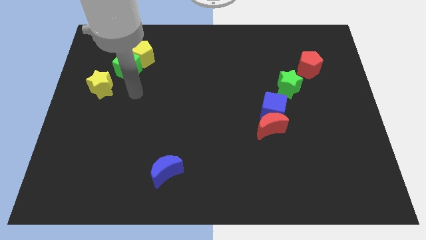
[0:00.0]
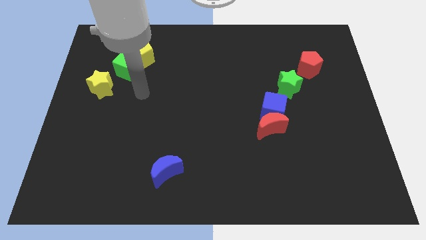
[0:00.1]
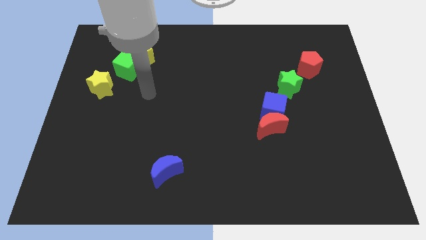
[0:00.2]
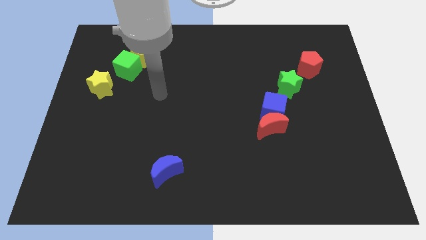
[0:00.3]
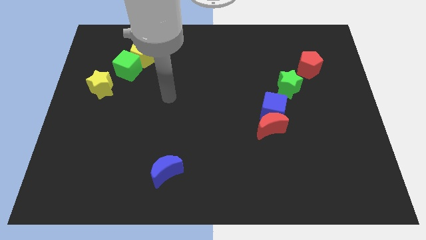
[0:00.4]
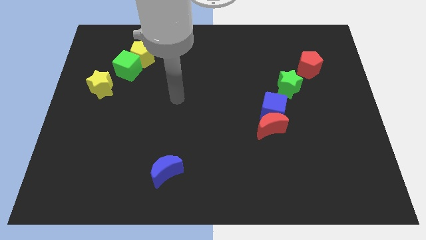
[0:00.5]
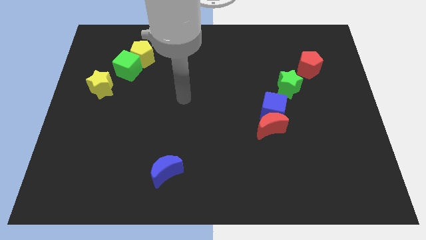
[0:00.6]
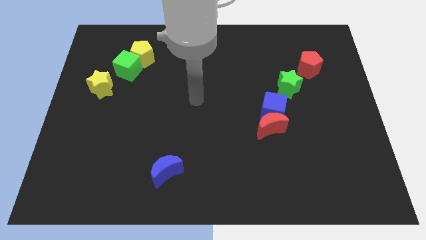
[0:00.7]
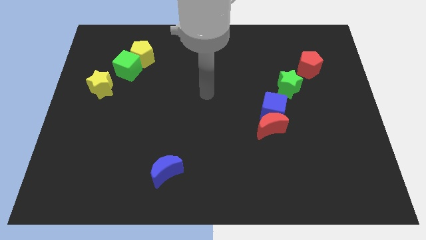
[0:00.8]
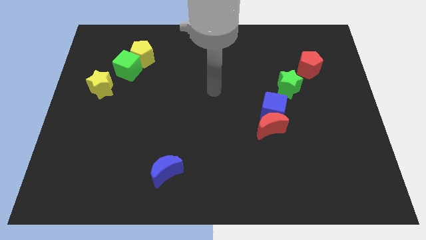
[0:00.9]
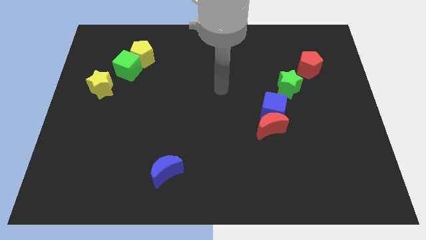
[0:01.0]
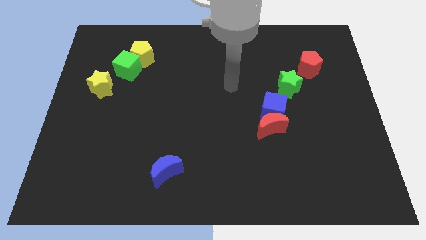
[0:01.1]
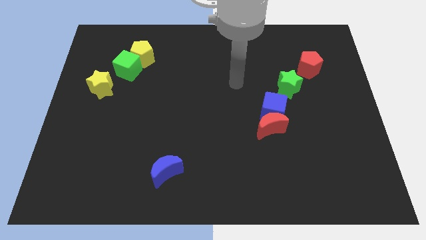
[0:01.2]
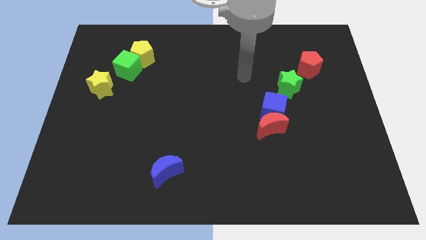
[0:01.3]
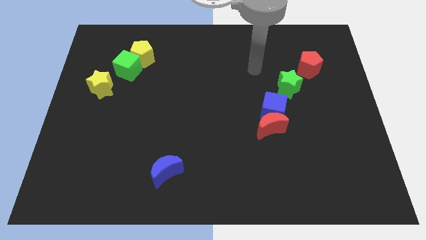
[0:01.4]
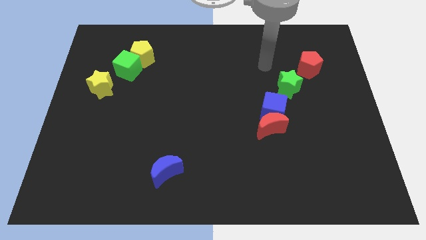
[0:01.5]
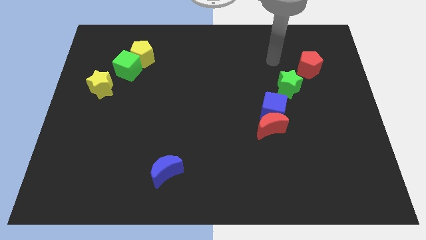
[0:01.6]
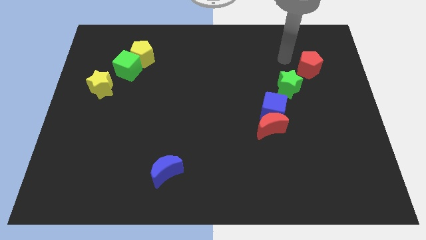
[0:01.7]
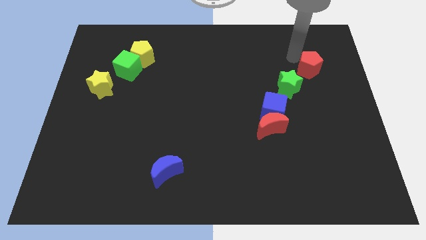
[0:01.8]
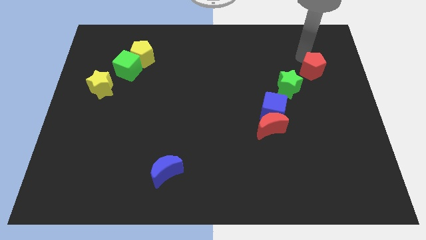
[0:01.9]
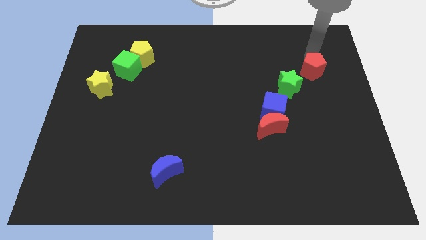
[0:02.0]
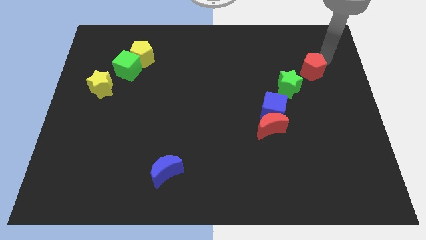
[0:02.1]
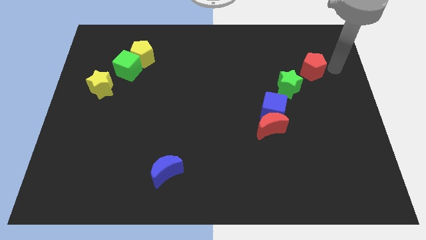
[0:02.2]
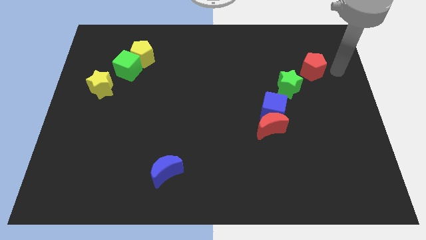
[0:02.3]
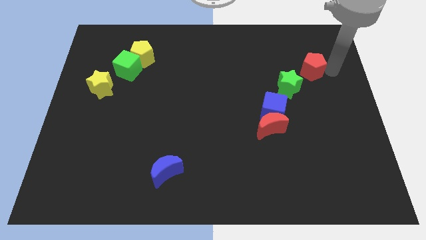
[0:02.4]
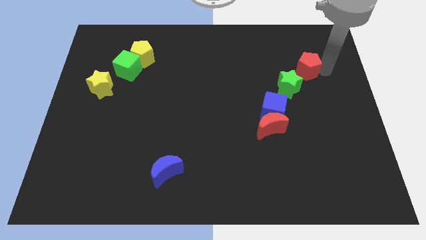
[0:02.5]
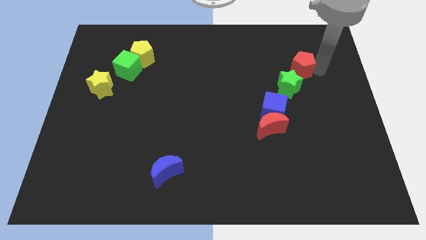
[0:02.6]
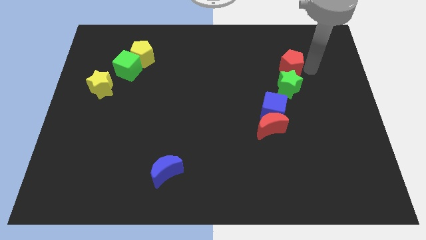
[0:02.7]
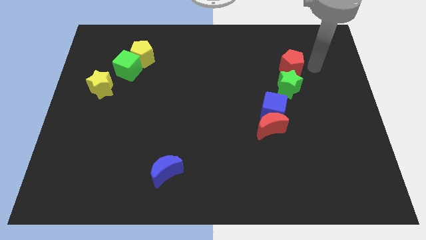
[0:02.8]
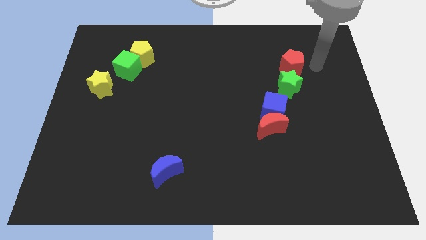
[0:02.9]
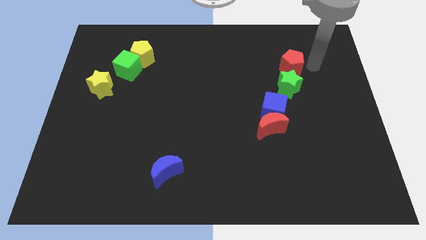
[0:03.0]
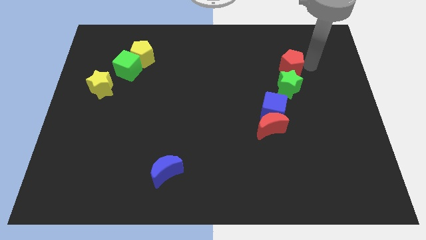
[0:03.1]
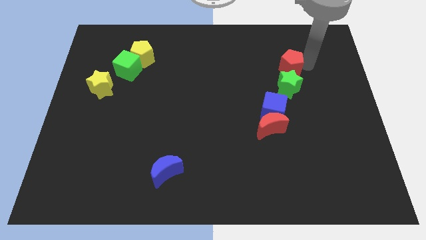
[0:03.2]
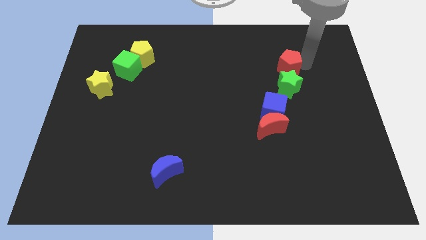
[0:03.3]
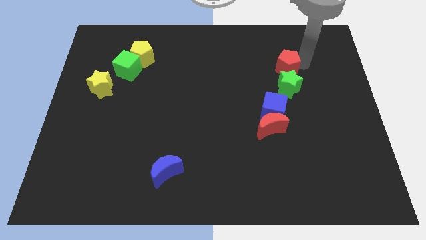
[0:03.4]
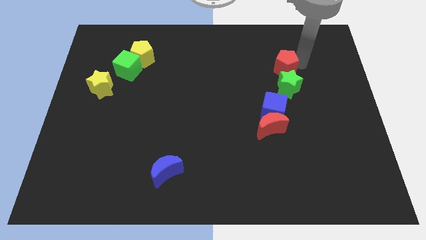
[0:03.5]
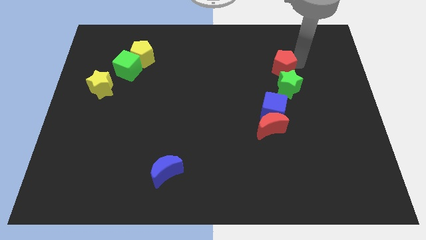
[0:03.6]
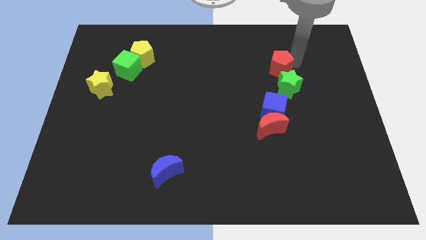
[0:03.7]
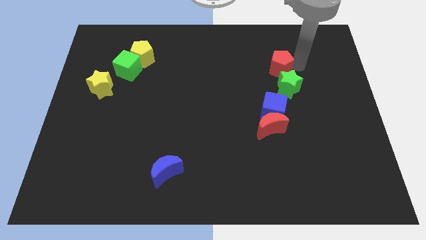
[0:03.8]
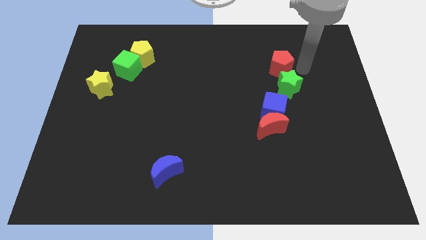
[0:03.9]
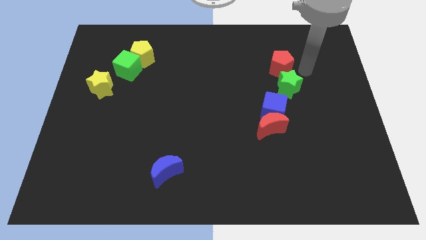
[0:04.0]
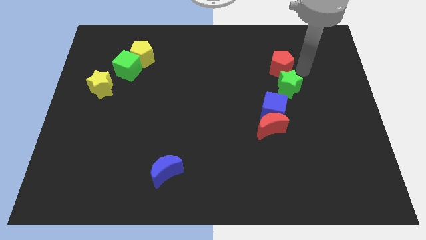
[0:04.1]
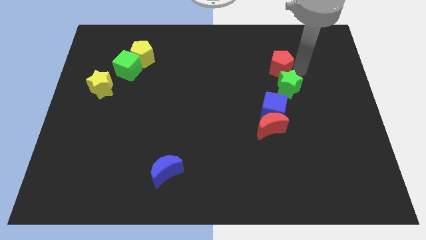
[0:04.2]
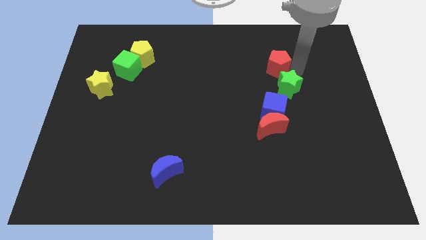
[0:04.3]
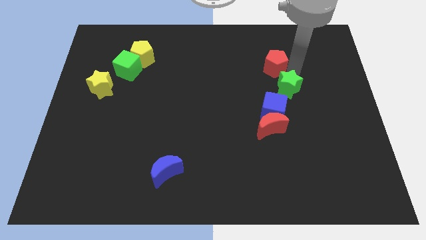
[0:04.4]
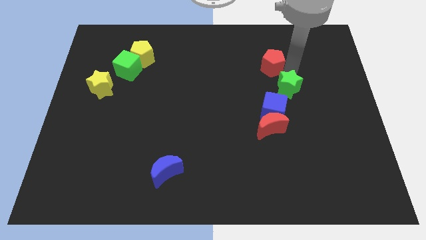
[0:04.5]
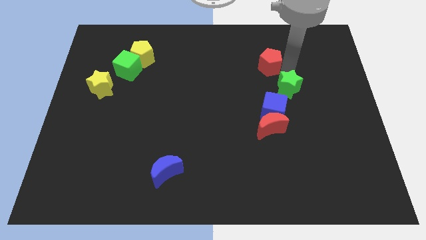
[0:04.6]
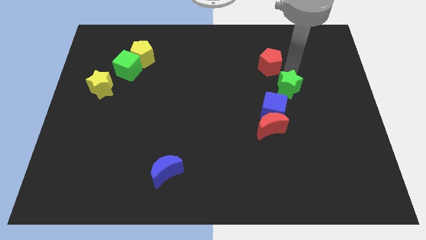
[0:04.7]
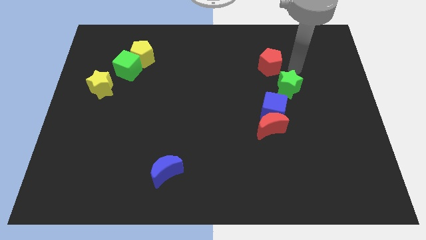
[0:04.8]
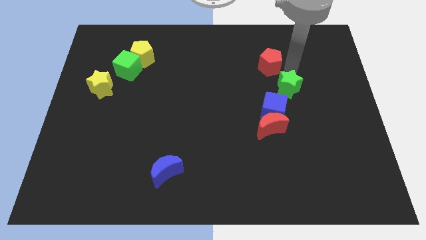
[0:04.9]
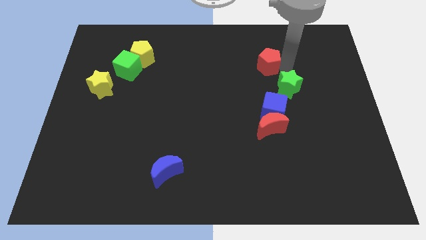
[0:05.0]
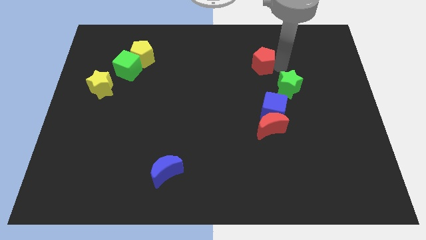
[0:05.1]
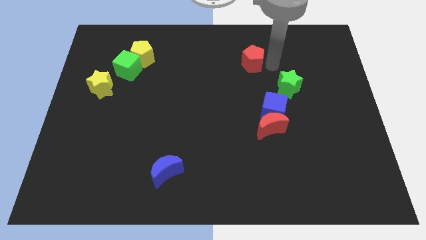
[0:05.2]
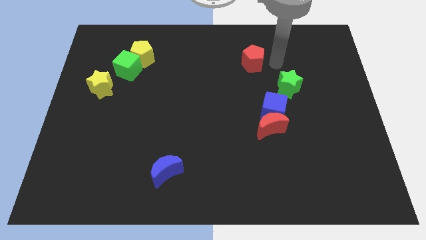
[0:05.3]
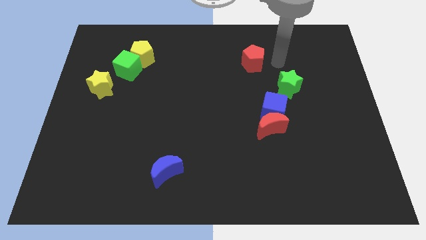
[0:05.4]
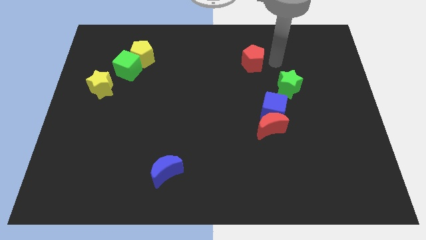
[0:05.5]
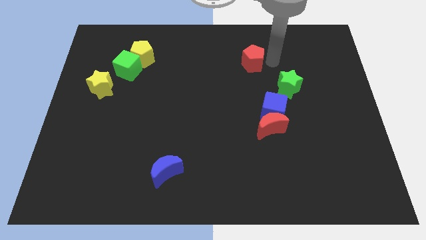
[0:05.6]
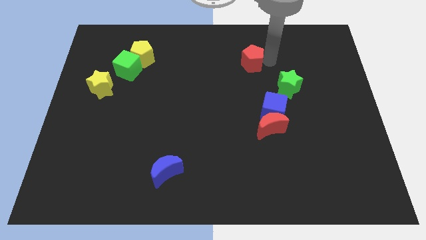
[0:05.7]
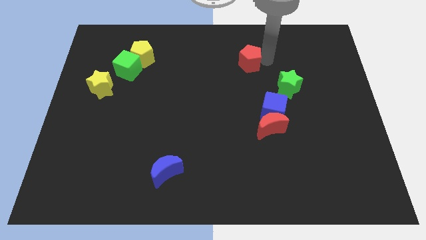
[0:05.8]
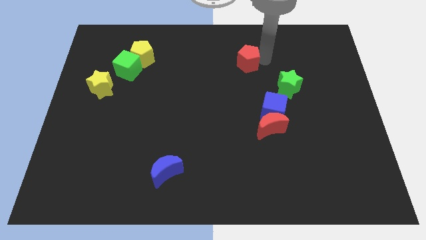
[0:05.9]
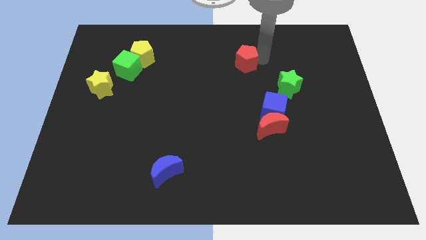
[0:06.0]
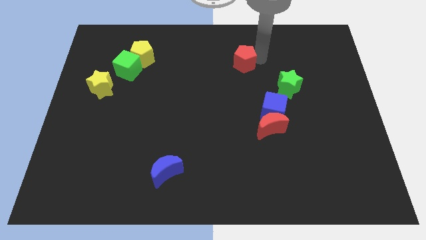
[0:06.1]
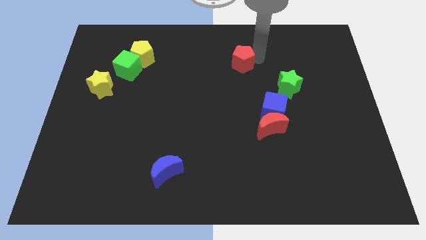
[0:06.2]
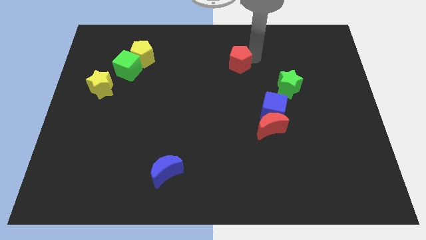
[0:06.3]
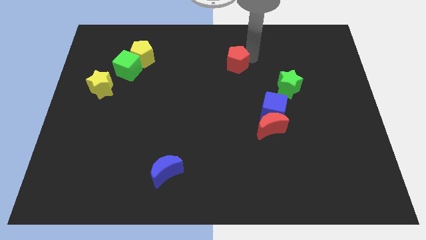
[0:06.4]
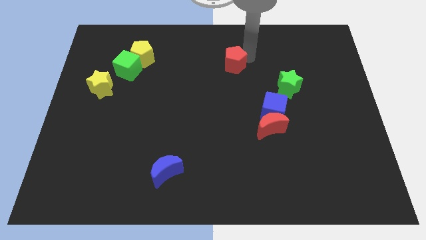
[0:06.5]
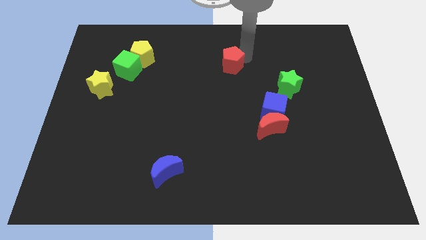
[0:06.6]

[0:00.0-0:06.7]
push the red pentagon to the left

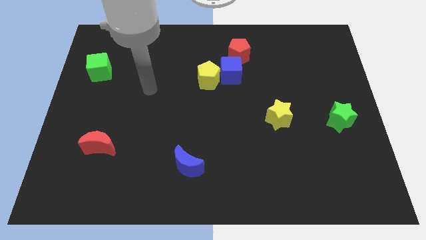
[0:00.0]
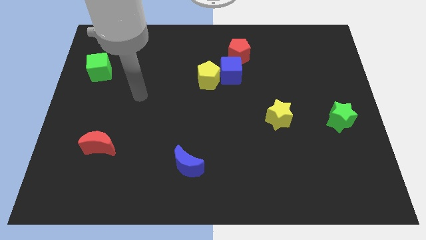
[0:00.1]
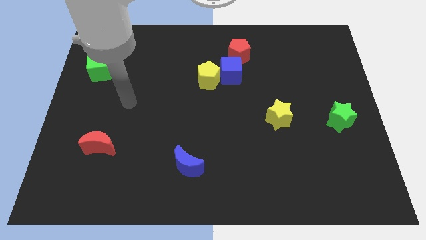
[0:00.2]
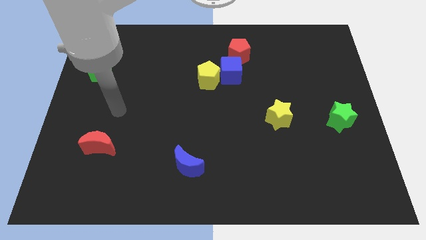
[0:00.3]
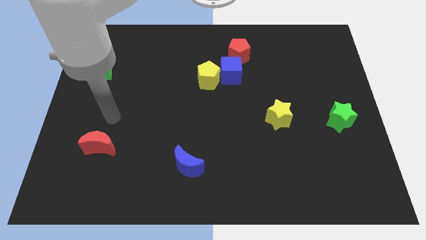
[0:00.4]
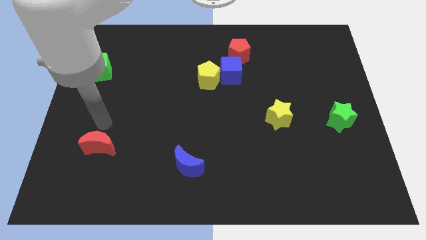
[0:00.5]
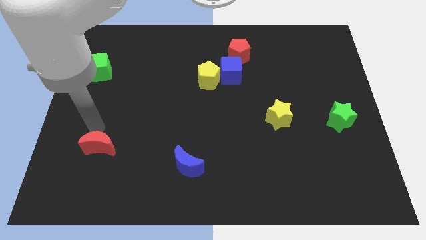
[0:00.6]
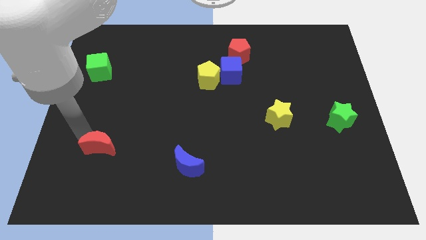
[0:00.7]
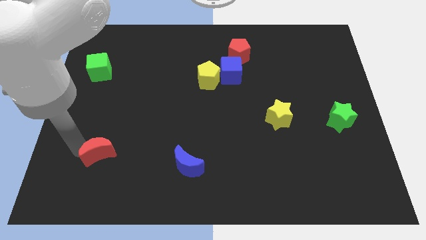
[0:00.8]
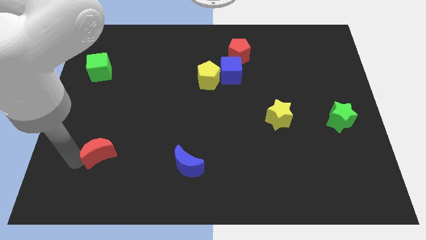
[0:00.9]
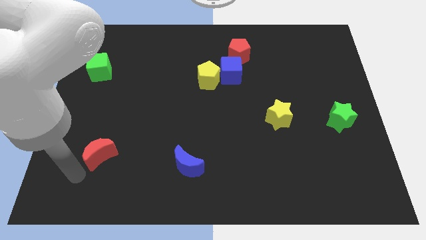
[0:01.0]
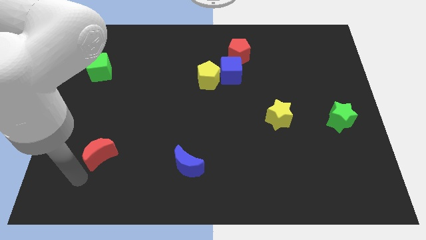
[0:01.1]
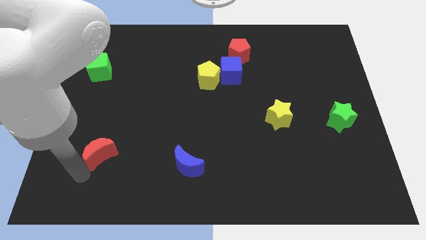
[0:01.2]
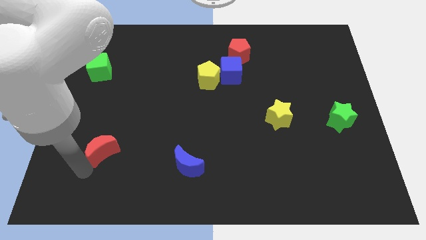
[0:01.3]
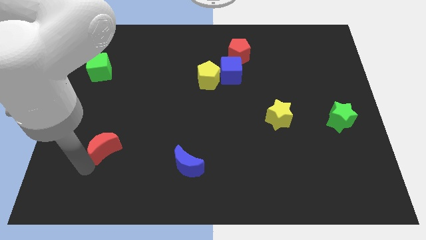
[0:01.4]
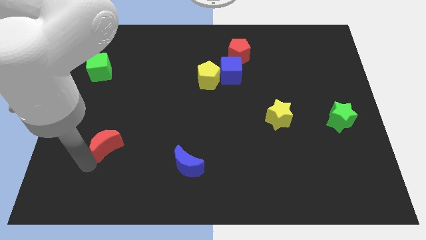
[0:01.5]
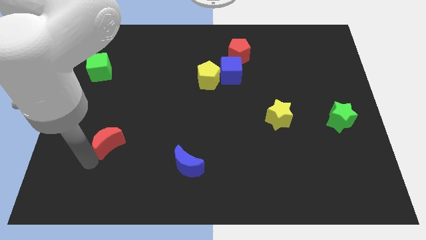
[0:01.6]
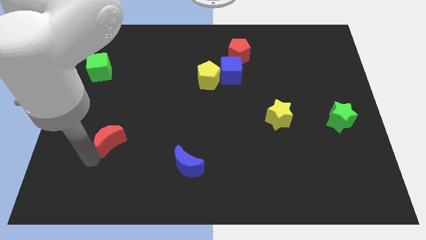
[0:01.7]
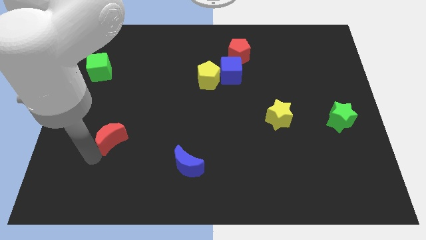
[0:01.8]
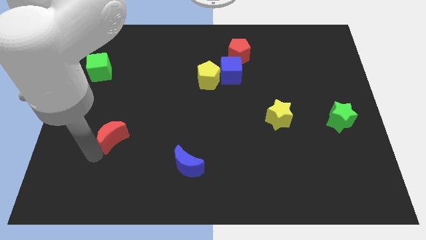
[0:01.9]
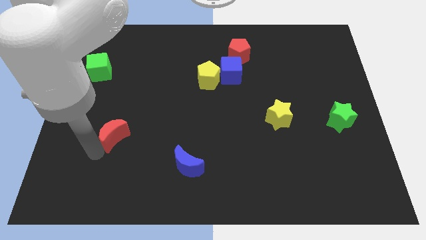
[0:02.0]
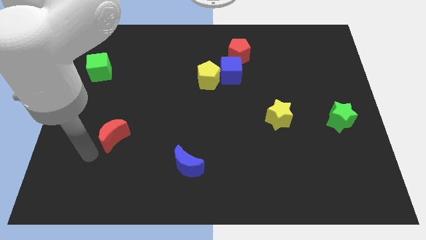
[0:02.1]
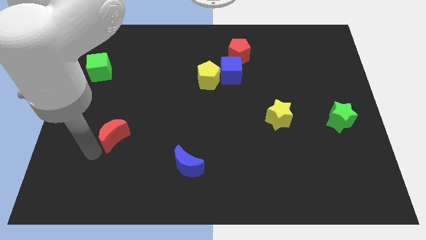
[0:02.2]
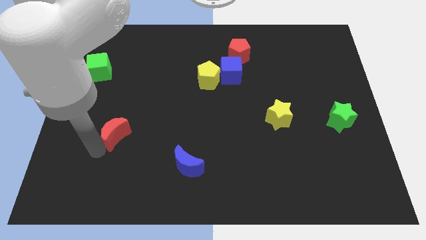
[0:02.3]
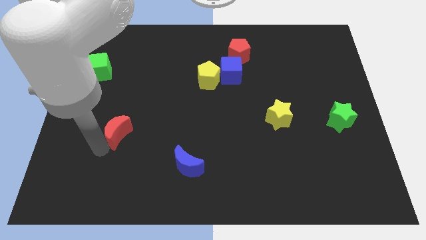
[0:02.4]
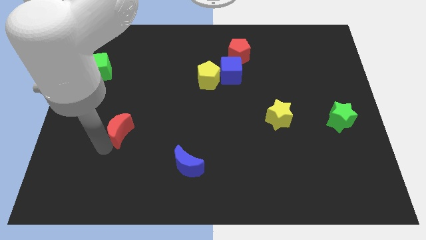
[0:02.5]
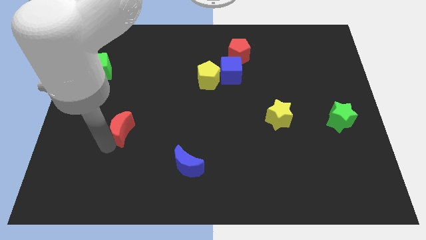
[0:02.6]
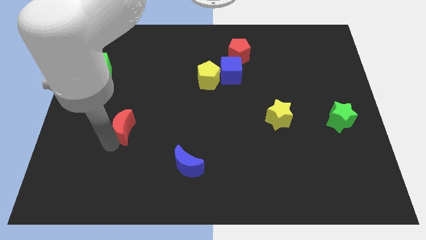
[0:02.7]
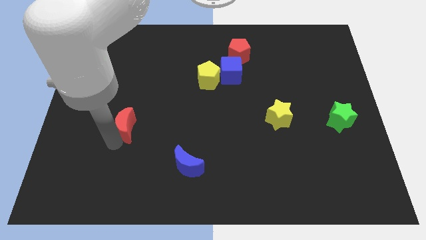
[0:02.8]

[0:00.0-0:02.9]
slide the red moon up and right slightly
